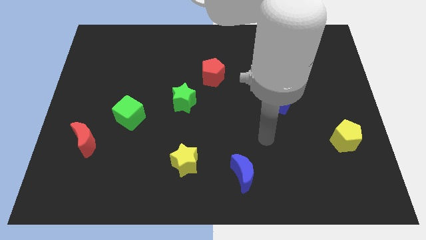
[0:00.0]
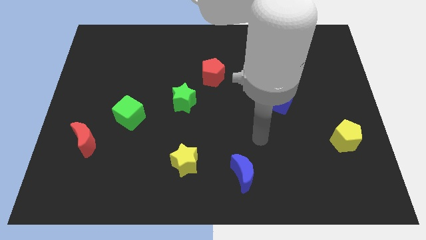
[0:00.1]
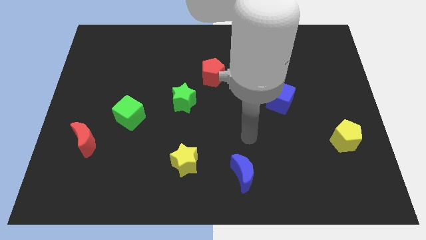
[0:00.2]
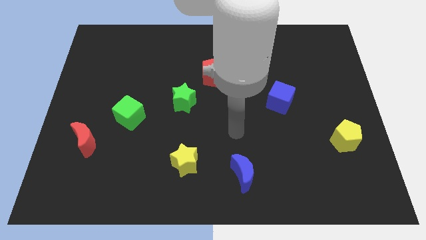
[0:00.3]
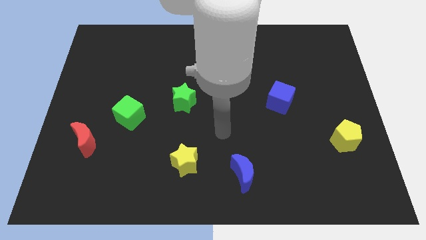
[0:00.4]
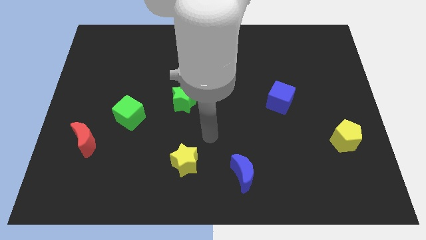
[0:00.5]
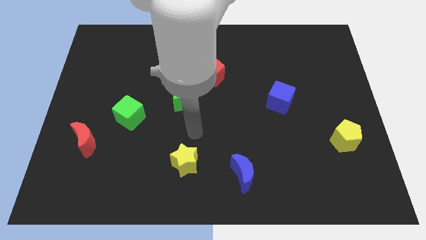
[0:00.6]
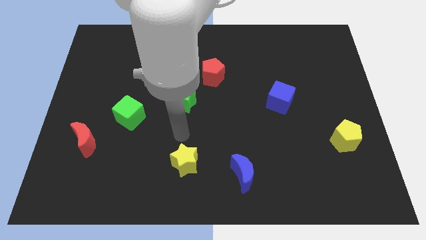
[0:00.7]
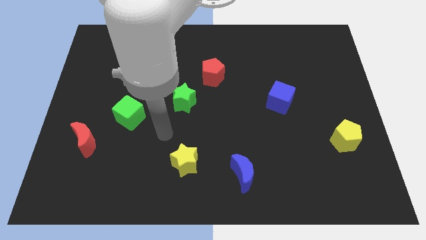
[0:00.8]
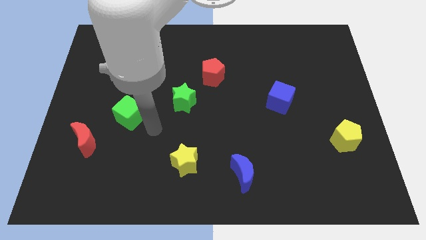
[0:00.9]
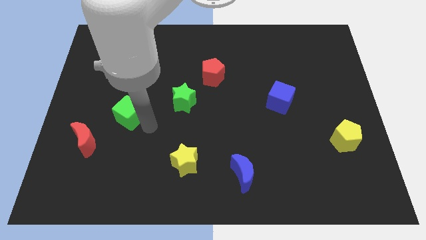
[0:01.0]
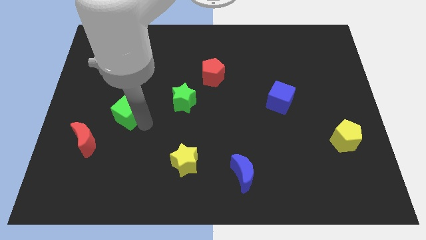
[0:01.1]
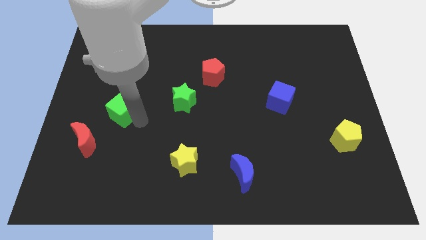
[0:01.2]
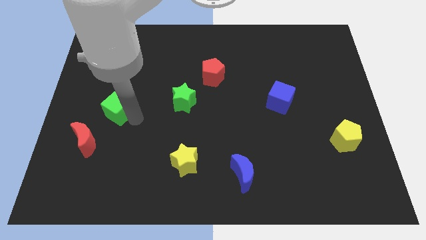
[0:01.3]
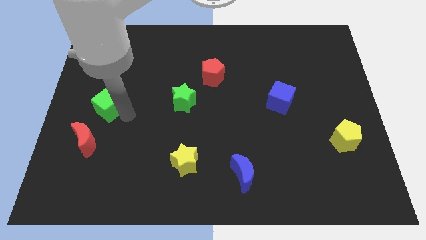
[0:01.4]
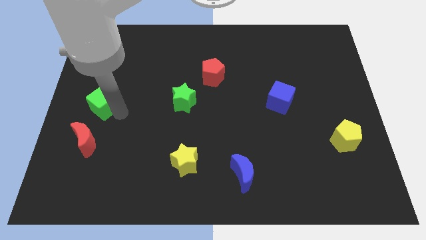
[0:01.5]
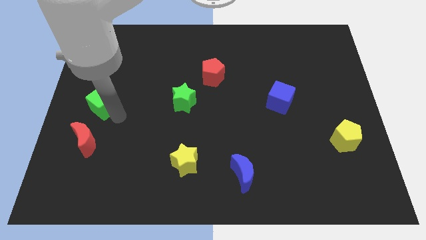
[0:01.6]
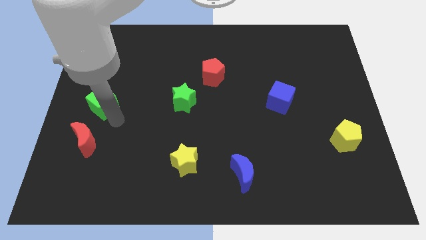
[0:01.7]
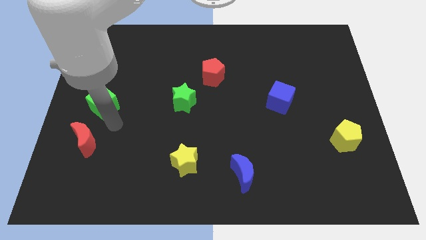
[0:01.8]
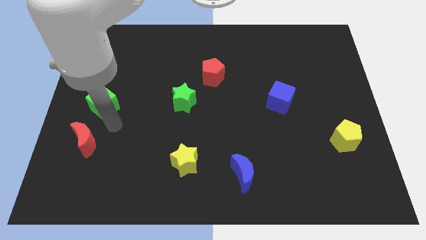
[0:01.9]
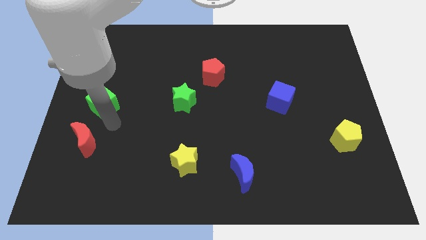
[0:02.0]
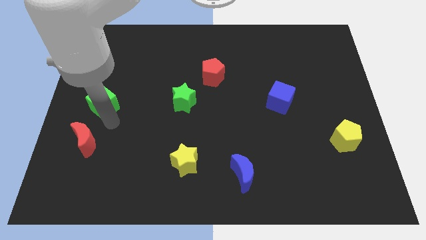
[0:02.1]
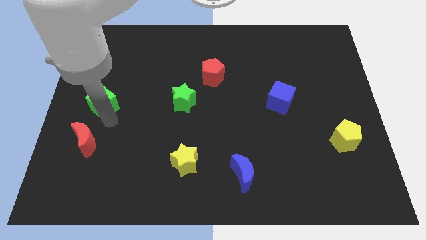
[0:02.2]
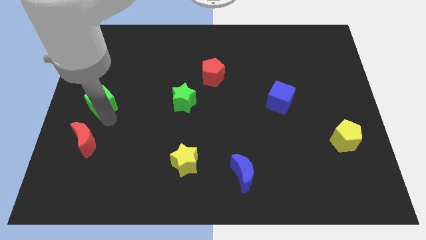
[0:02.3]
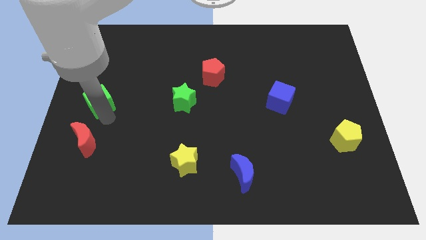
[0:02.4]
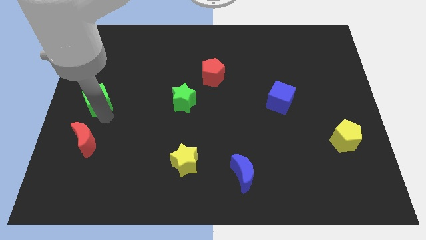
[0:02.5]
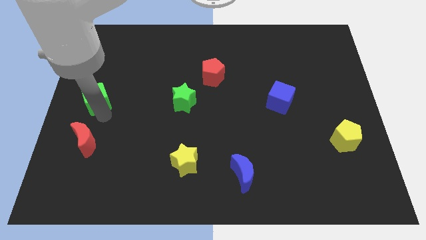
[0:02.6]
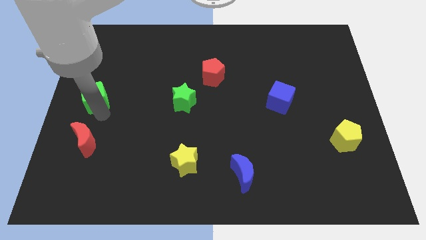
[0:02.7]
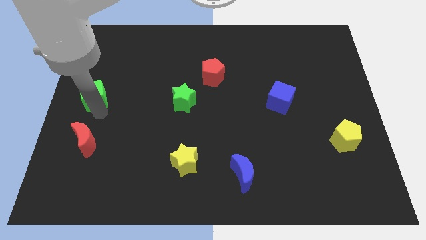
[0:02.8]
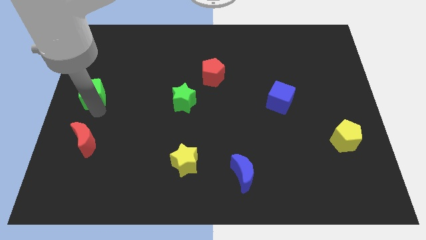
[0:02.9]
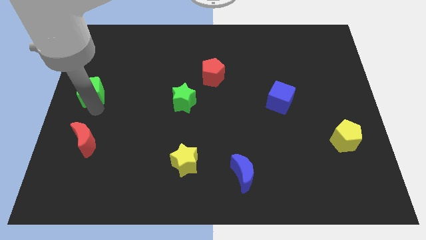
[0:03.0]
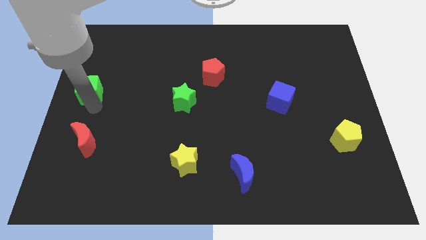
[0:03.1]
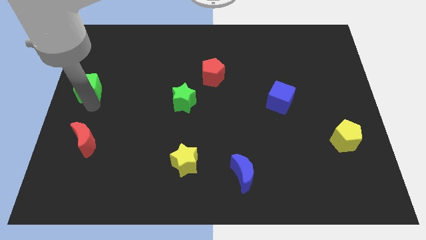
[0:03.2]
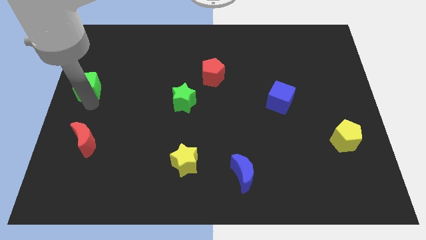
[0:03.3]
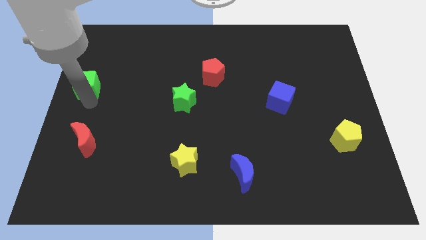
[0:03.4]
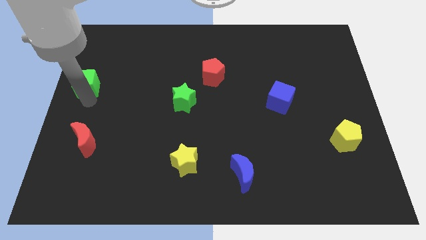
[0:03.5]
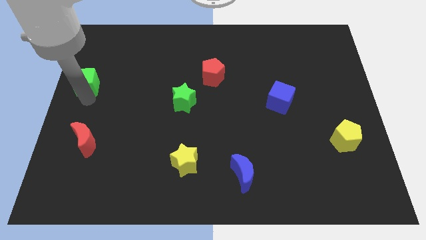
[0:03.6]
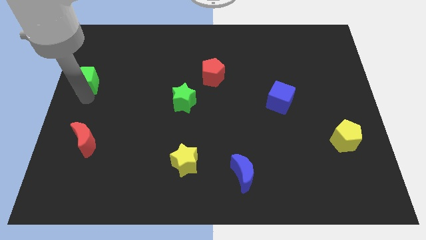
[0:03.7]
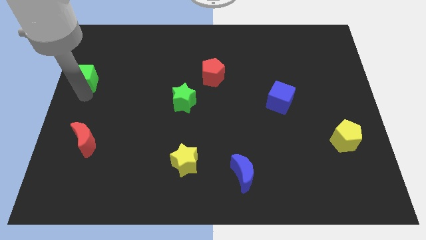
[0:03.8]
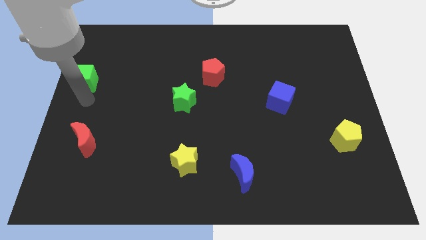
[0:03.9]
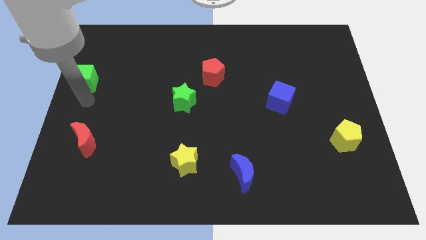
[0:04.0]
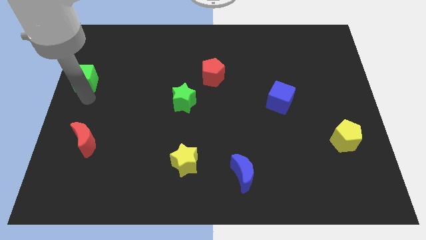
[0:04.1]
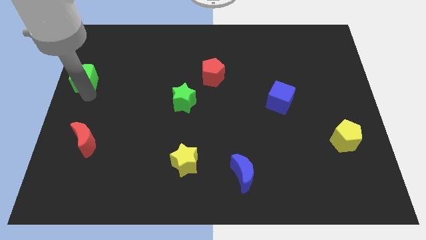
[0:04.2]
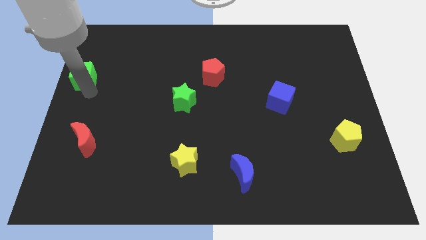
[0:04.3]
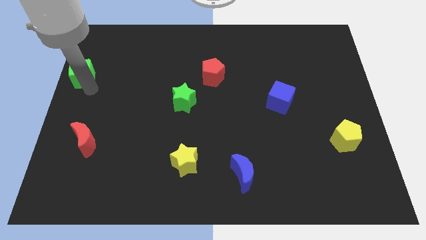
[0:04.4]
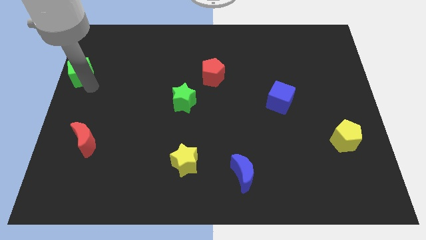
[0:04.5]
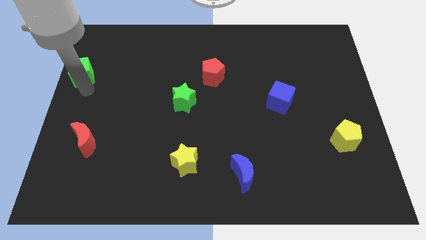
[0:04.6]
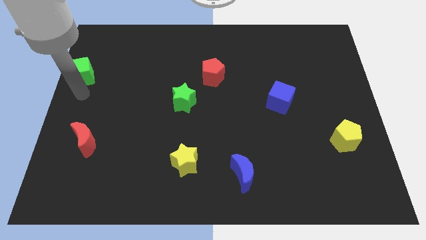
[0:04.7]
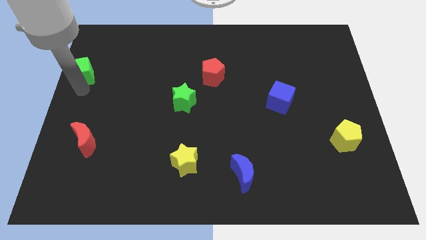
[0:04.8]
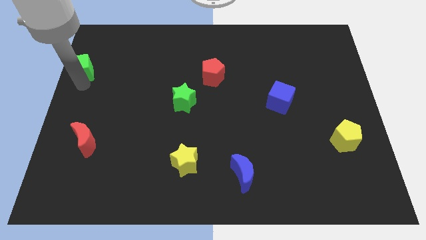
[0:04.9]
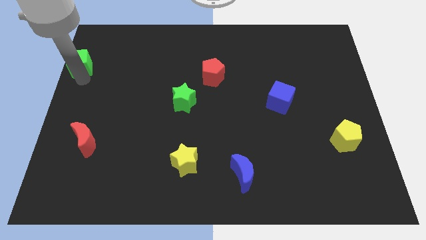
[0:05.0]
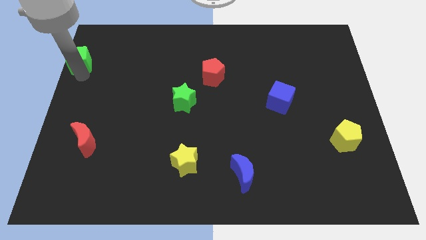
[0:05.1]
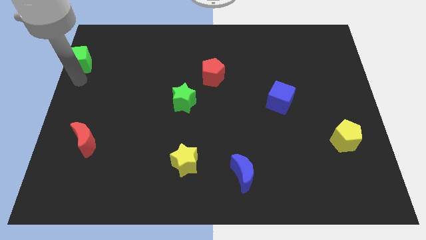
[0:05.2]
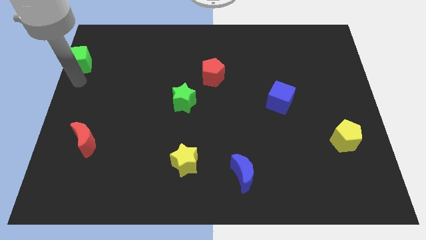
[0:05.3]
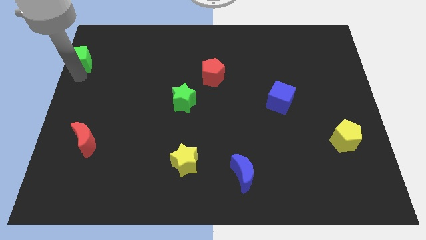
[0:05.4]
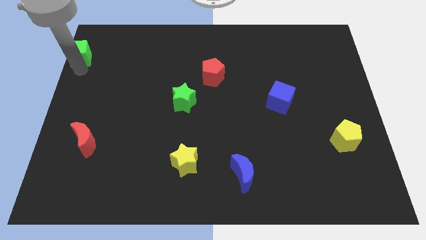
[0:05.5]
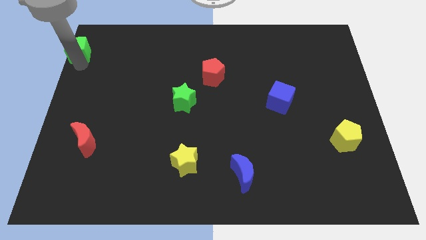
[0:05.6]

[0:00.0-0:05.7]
push the green cube to the top left of the board
